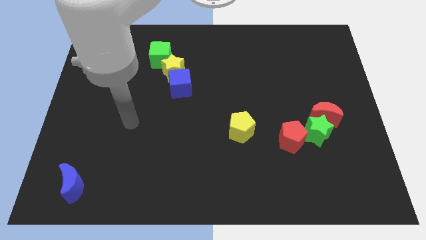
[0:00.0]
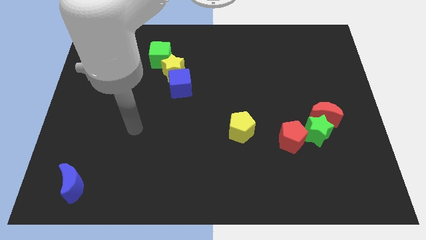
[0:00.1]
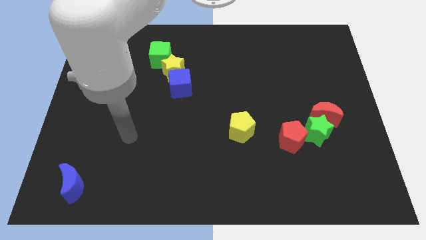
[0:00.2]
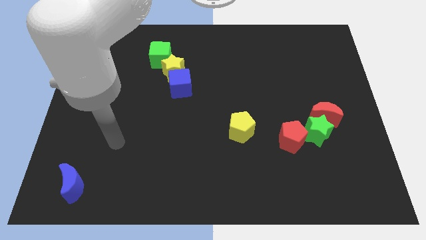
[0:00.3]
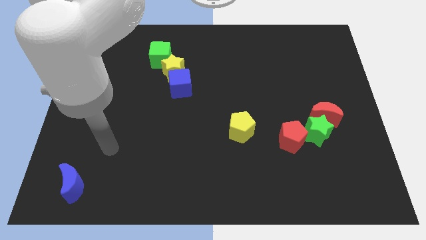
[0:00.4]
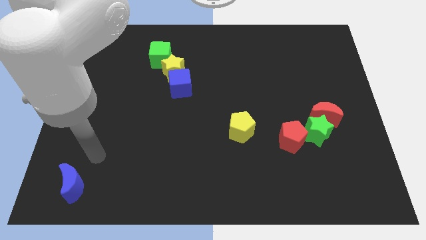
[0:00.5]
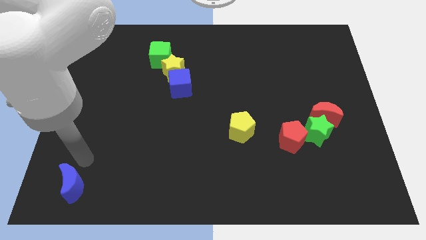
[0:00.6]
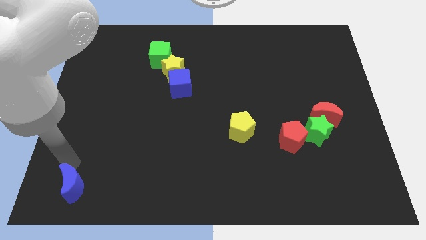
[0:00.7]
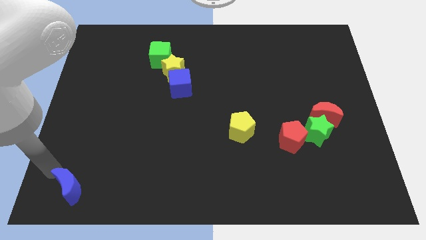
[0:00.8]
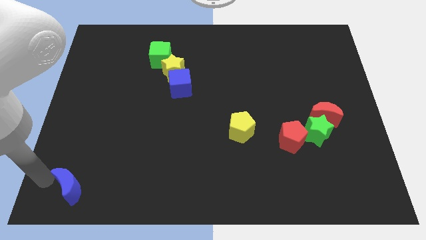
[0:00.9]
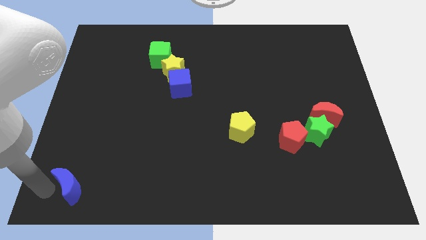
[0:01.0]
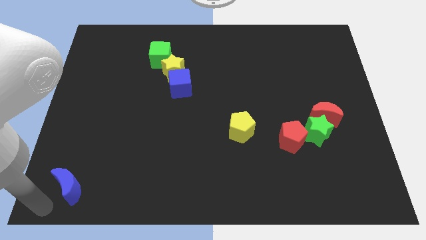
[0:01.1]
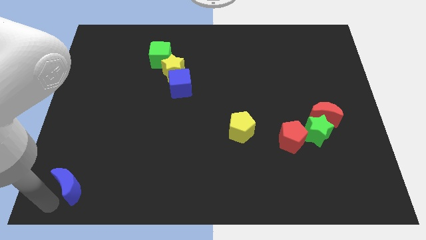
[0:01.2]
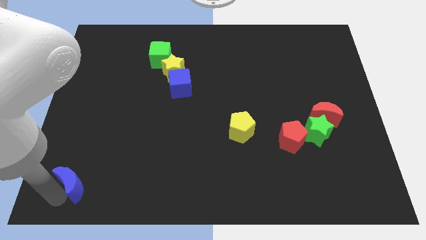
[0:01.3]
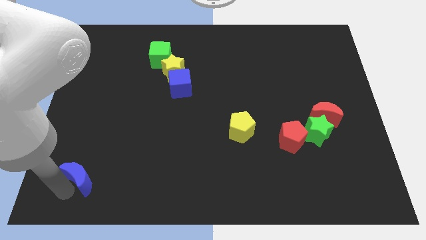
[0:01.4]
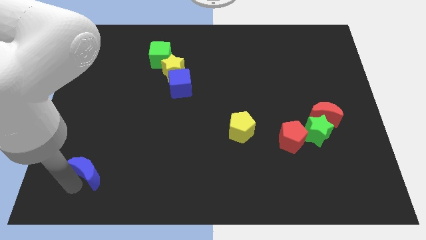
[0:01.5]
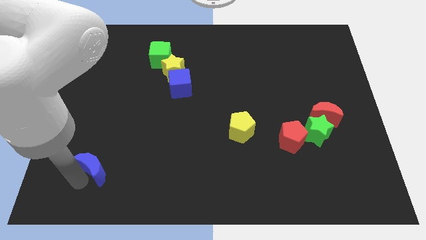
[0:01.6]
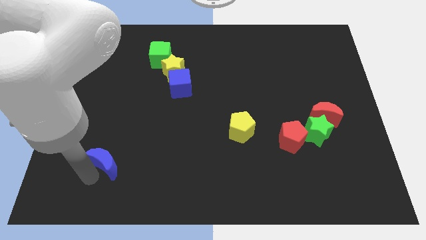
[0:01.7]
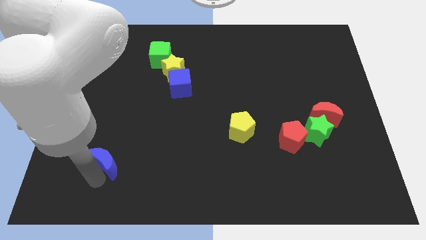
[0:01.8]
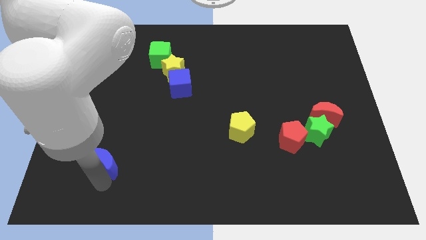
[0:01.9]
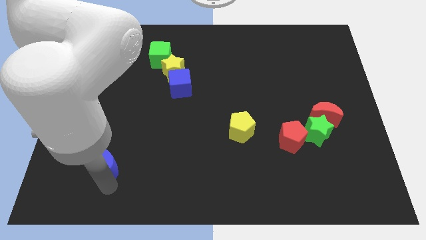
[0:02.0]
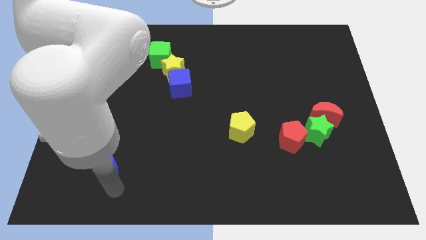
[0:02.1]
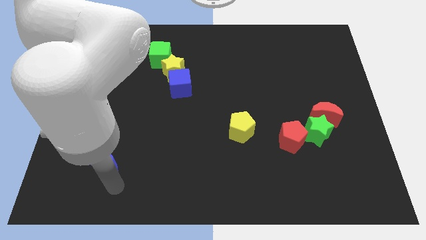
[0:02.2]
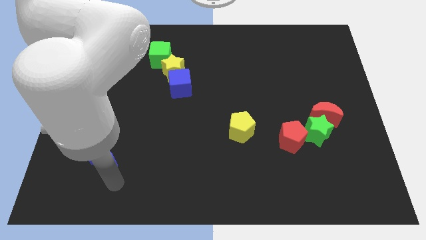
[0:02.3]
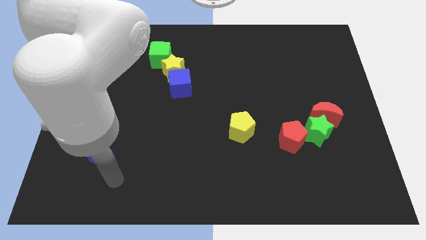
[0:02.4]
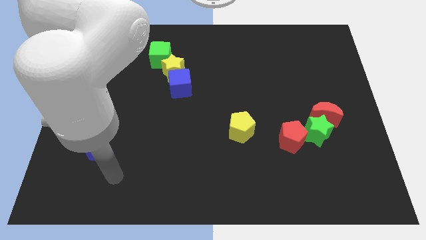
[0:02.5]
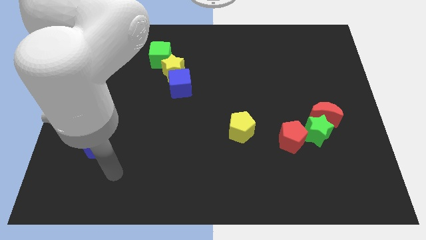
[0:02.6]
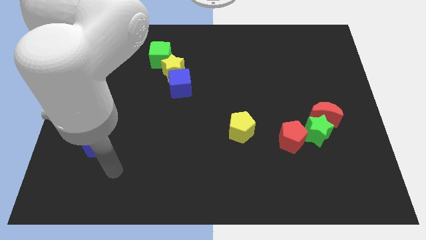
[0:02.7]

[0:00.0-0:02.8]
slightly move the blue moon upwards

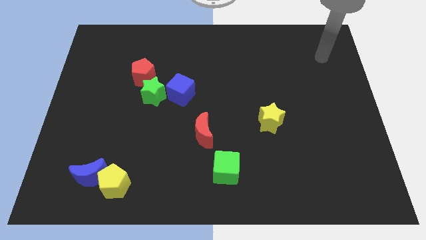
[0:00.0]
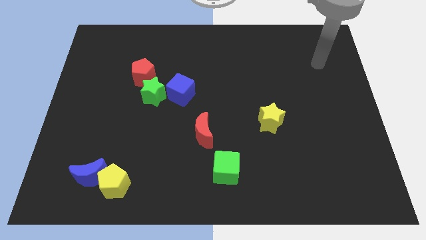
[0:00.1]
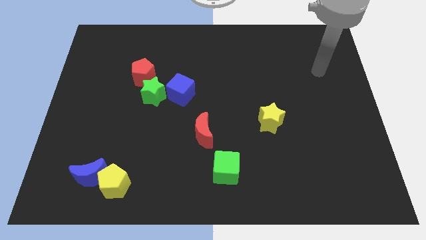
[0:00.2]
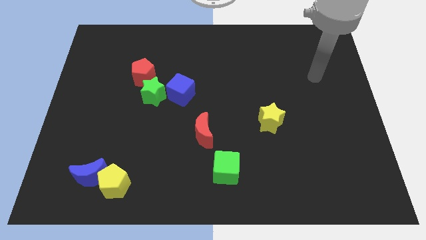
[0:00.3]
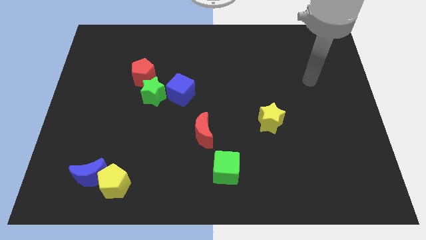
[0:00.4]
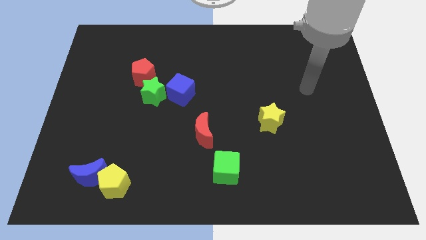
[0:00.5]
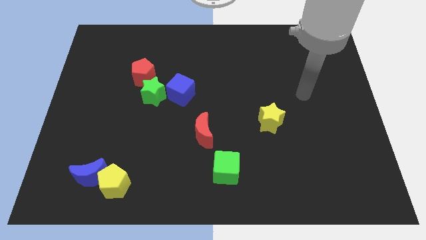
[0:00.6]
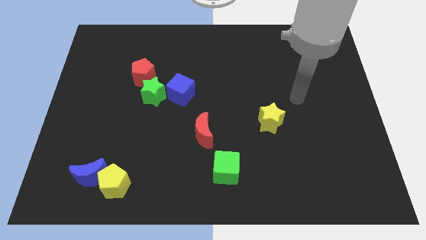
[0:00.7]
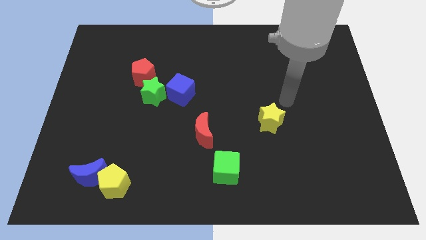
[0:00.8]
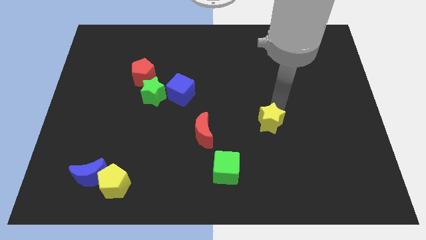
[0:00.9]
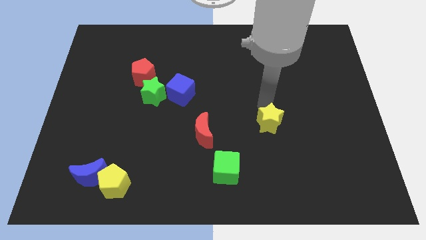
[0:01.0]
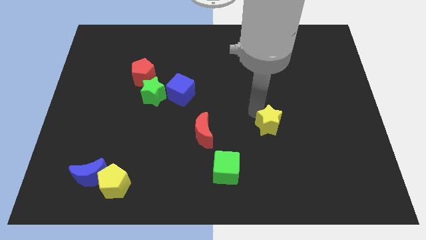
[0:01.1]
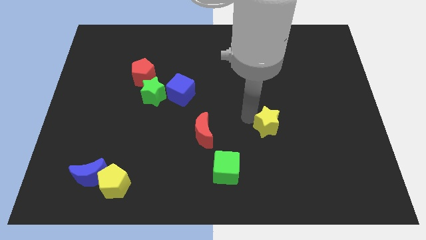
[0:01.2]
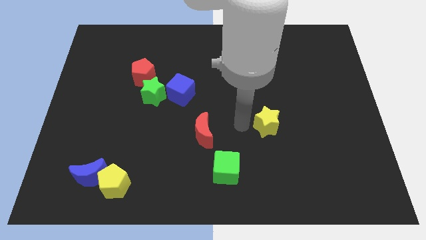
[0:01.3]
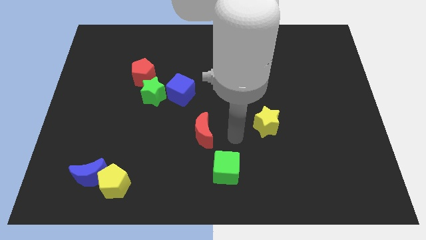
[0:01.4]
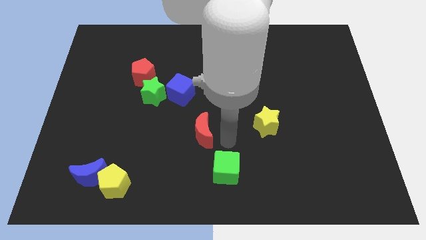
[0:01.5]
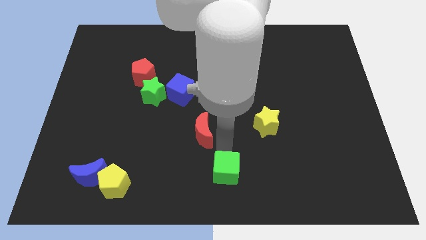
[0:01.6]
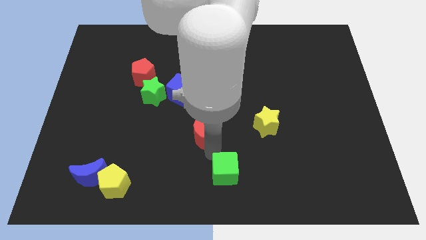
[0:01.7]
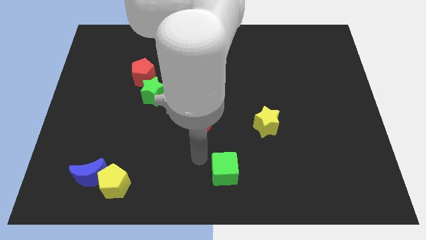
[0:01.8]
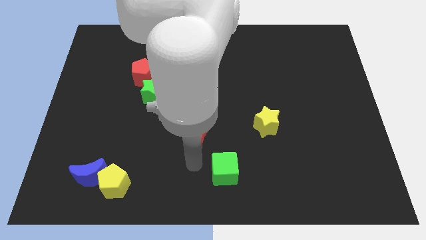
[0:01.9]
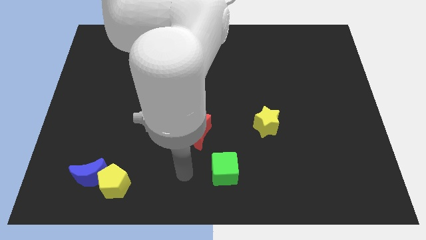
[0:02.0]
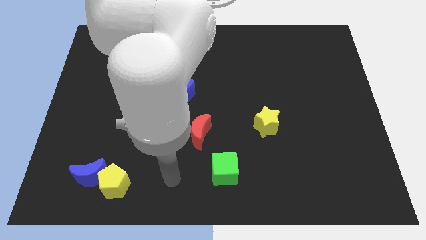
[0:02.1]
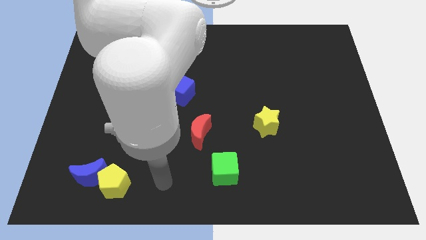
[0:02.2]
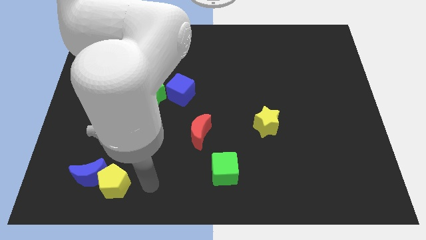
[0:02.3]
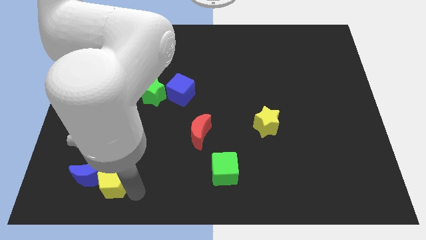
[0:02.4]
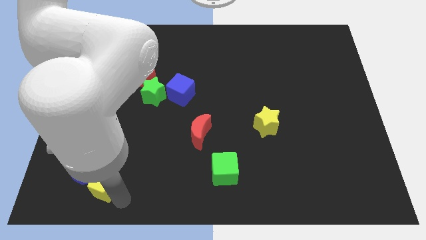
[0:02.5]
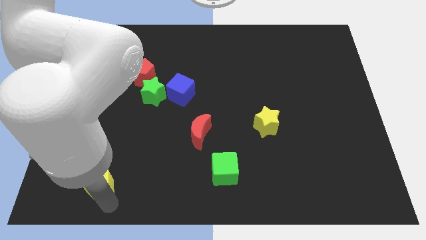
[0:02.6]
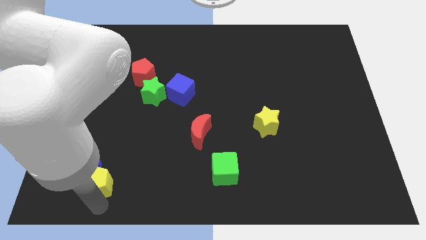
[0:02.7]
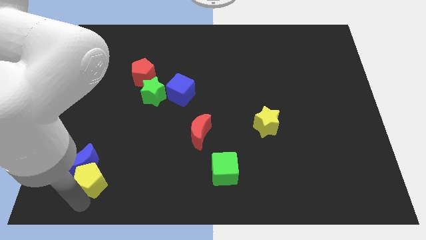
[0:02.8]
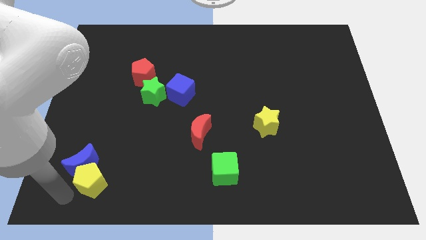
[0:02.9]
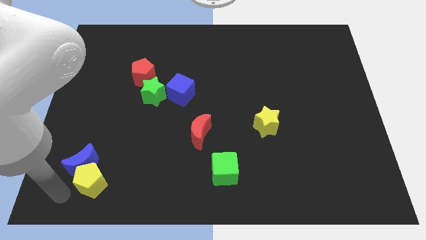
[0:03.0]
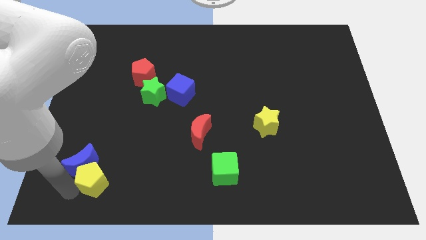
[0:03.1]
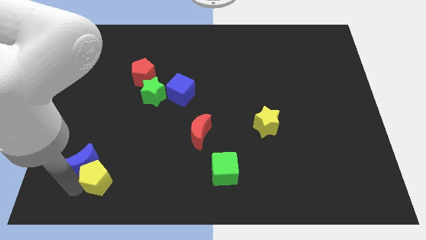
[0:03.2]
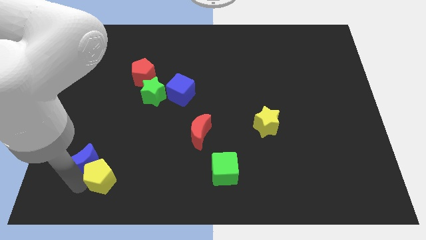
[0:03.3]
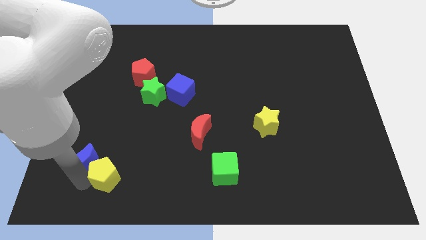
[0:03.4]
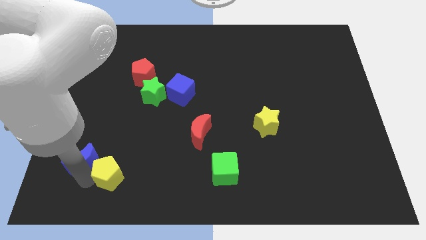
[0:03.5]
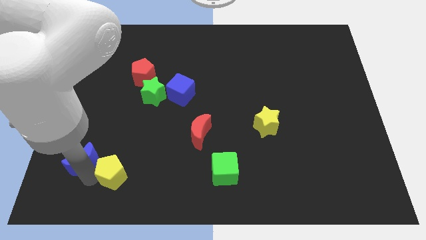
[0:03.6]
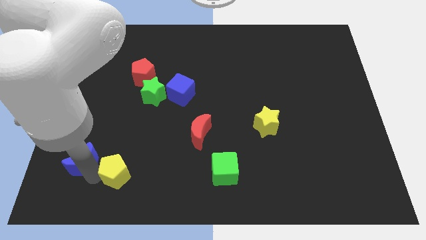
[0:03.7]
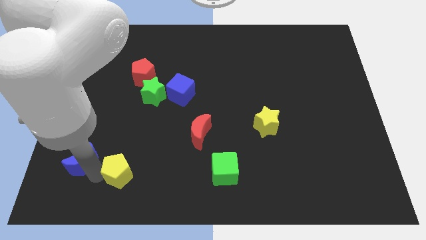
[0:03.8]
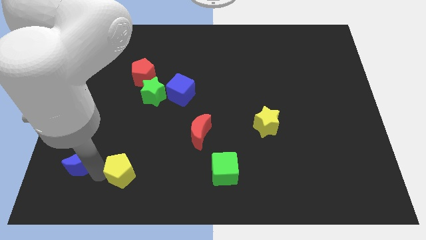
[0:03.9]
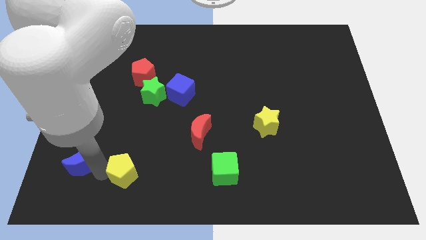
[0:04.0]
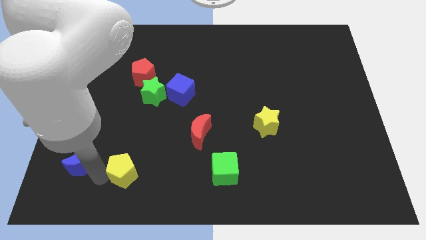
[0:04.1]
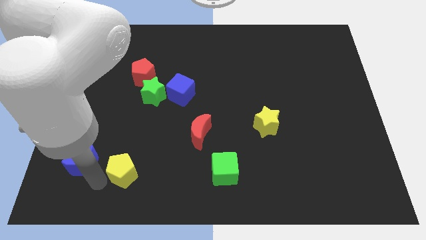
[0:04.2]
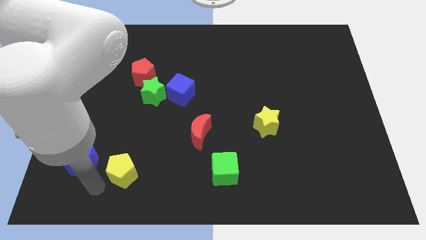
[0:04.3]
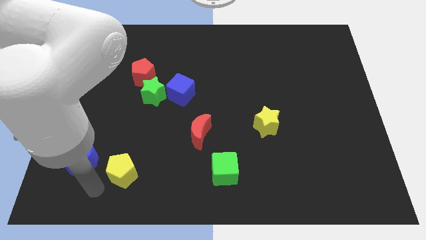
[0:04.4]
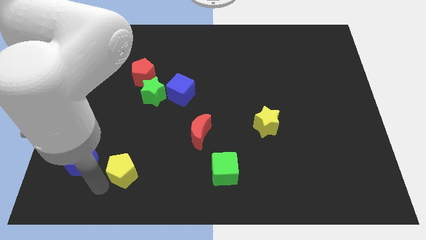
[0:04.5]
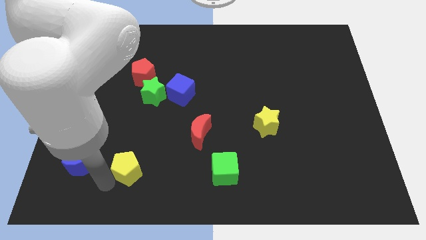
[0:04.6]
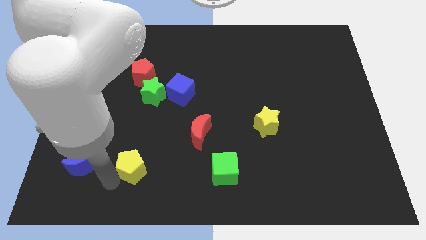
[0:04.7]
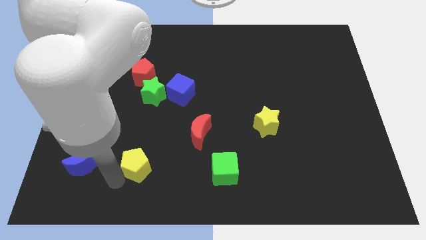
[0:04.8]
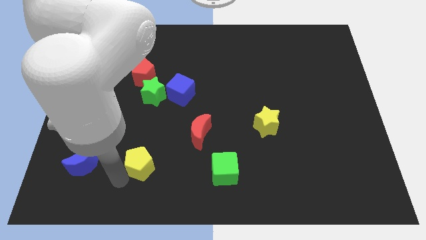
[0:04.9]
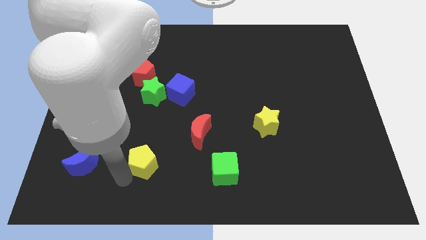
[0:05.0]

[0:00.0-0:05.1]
slightly push the yellow pentagon diagonally up and right
